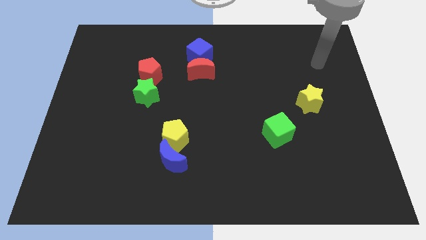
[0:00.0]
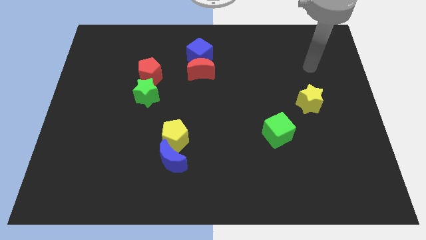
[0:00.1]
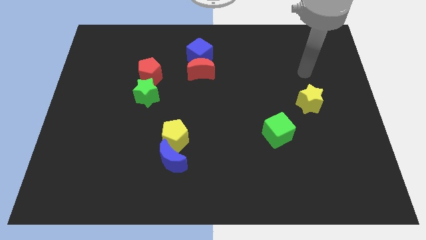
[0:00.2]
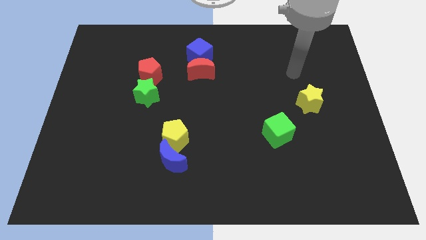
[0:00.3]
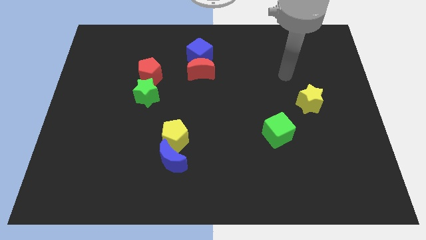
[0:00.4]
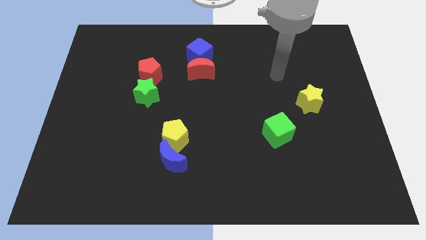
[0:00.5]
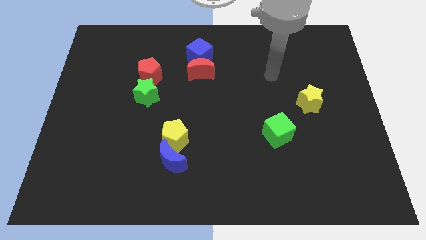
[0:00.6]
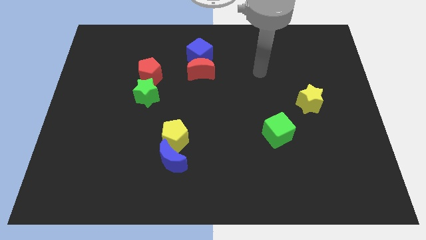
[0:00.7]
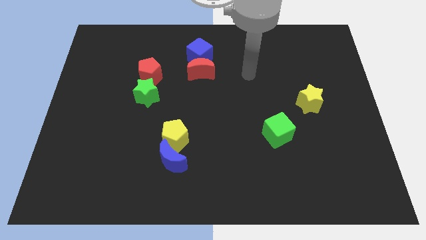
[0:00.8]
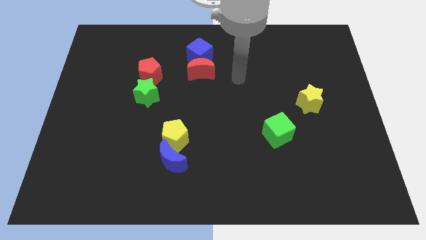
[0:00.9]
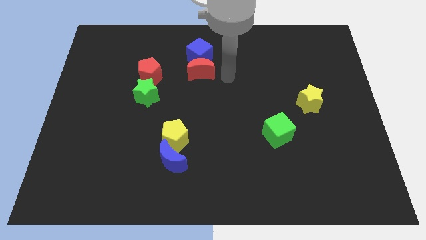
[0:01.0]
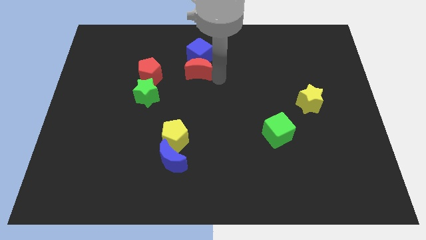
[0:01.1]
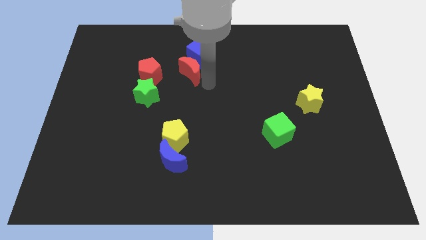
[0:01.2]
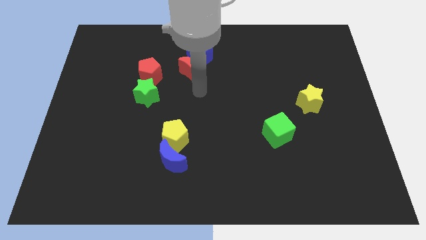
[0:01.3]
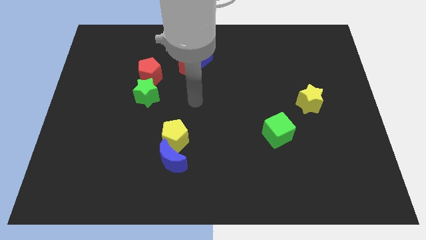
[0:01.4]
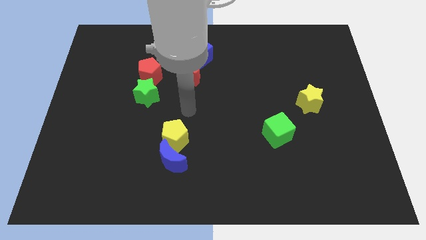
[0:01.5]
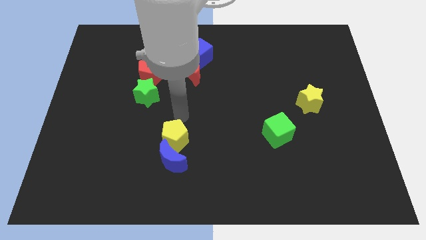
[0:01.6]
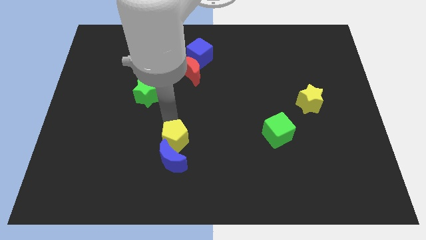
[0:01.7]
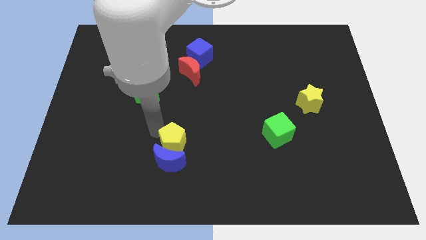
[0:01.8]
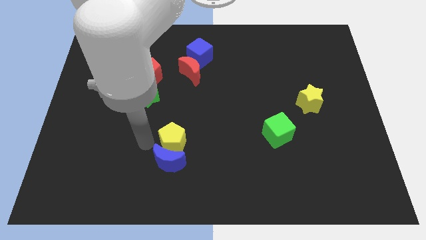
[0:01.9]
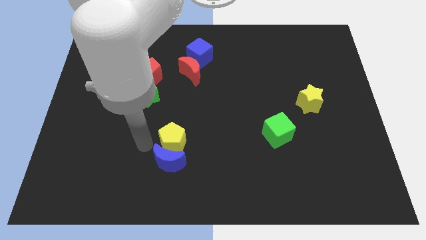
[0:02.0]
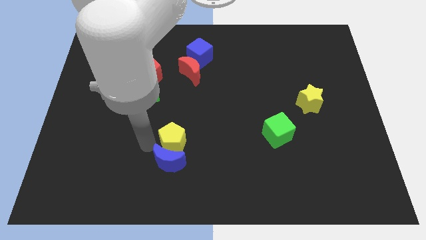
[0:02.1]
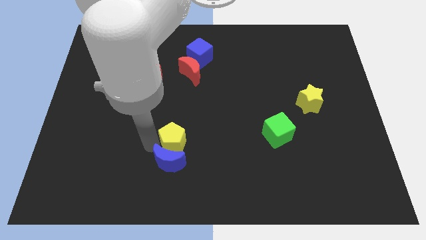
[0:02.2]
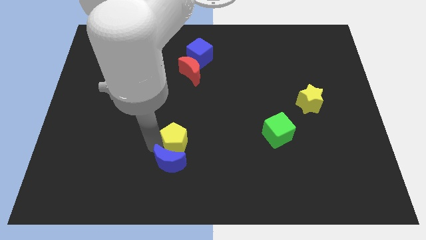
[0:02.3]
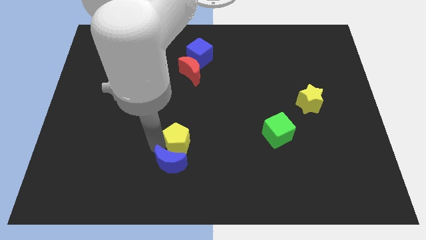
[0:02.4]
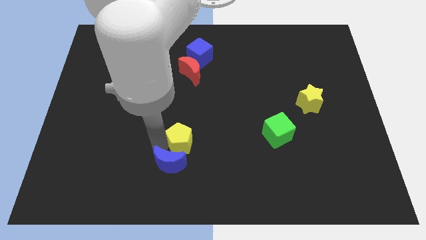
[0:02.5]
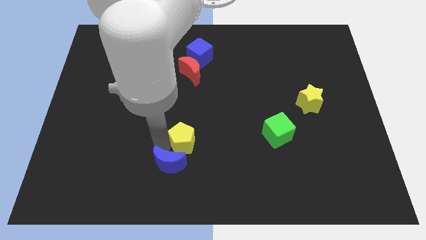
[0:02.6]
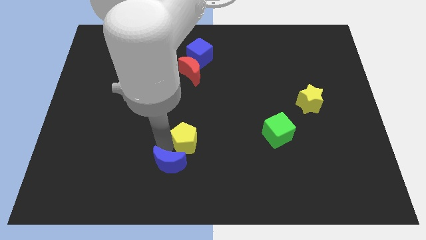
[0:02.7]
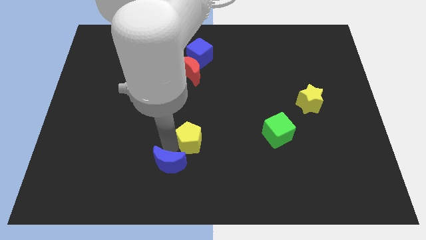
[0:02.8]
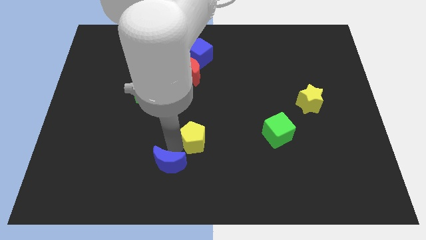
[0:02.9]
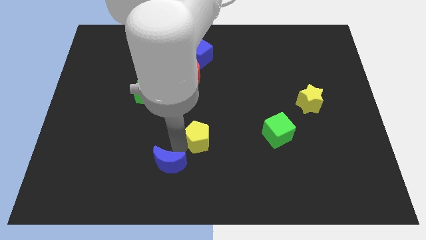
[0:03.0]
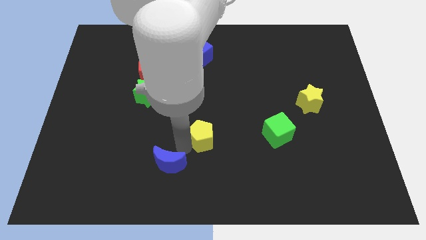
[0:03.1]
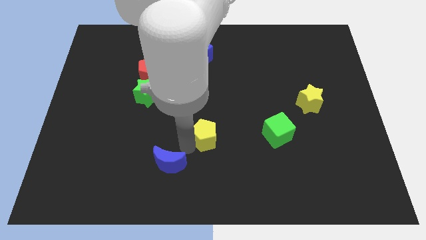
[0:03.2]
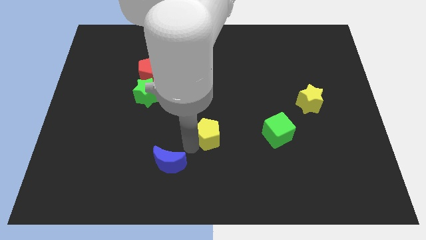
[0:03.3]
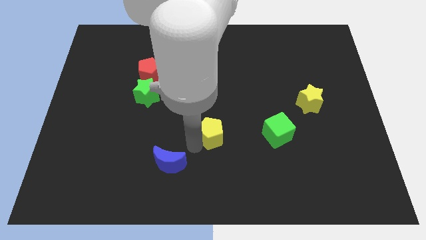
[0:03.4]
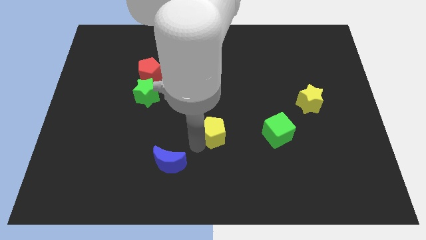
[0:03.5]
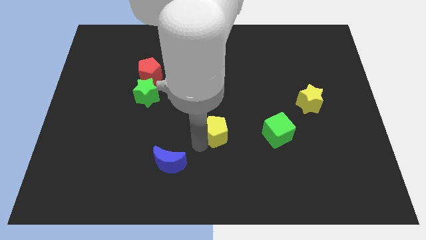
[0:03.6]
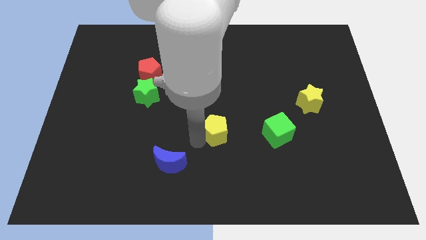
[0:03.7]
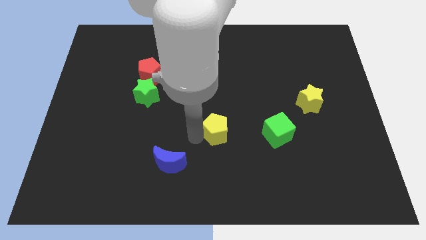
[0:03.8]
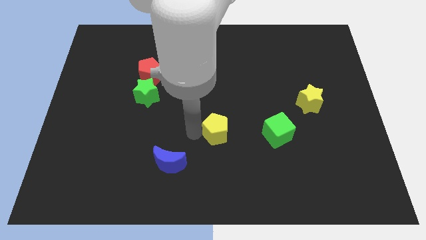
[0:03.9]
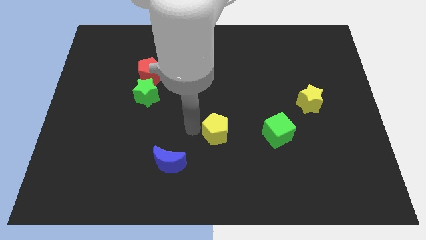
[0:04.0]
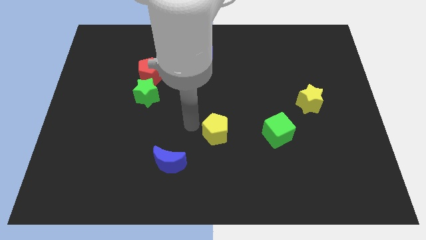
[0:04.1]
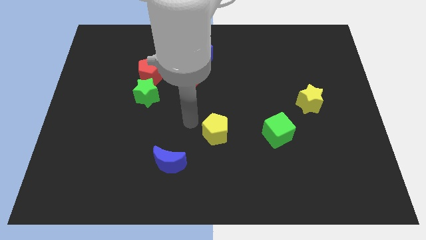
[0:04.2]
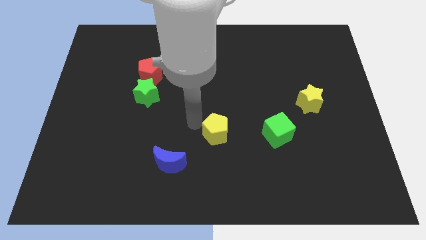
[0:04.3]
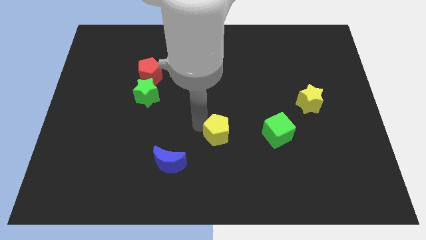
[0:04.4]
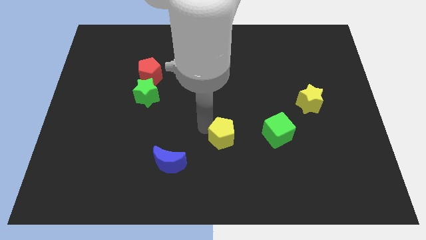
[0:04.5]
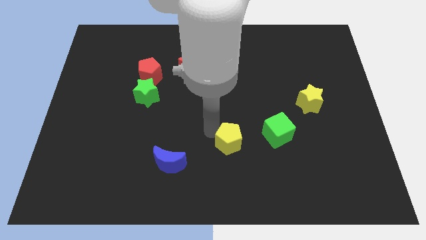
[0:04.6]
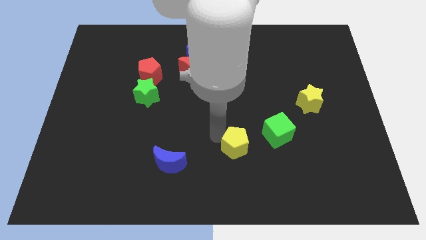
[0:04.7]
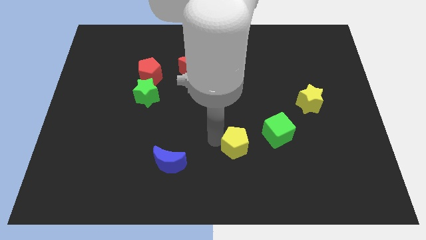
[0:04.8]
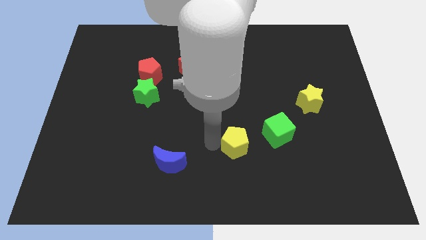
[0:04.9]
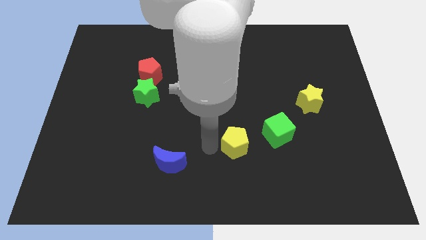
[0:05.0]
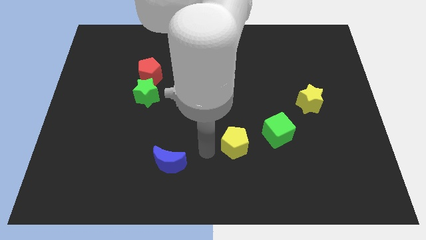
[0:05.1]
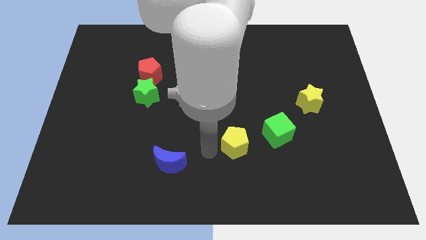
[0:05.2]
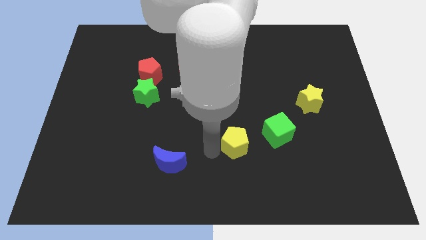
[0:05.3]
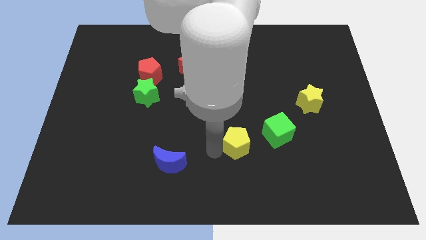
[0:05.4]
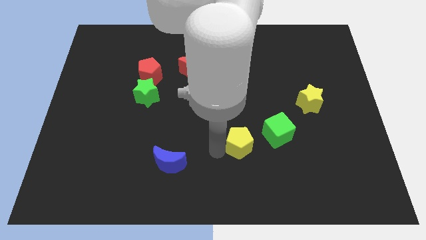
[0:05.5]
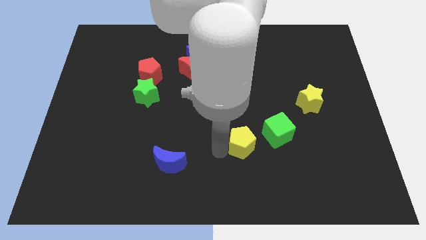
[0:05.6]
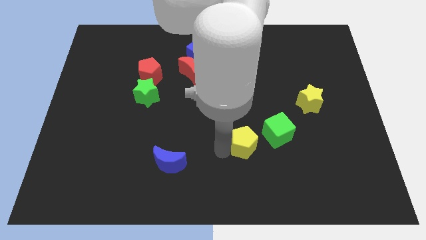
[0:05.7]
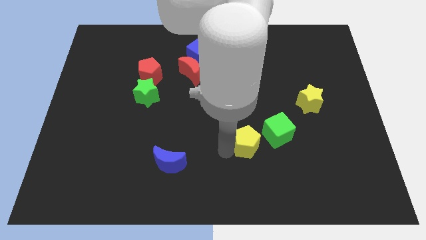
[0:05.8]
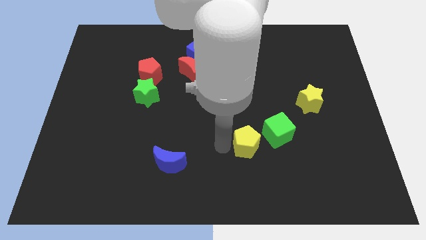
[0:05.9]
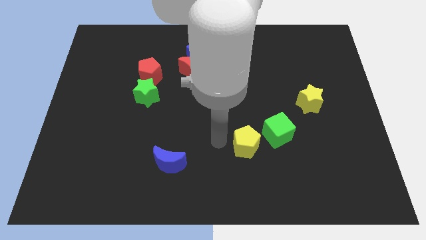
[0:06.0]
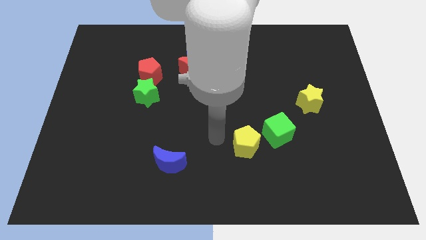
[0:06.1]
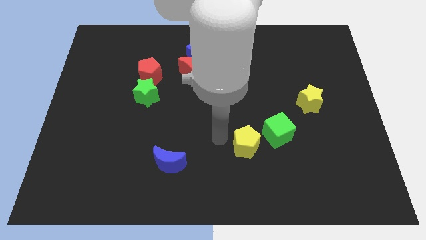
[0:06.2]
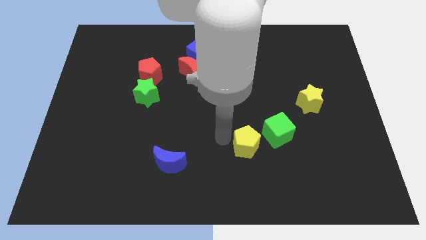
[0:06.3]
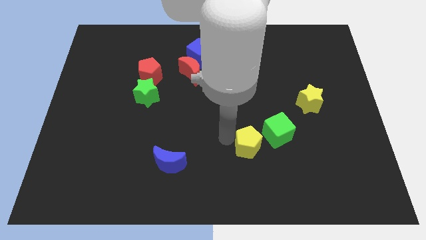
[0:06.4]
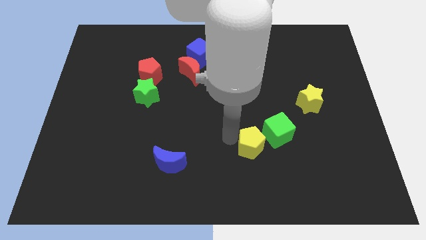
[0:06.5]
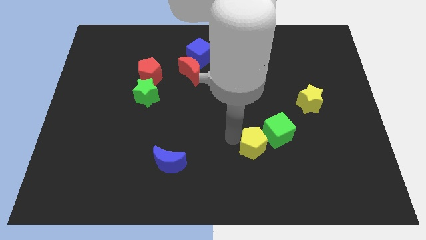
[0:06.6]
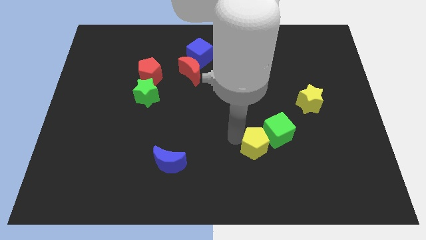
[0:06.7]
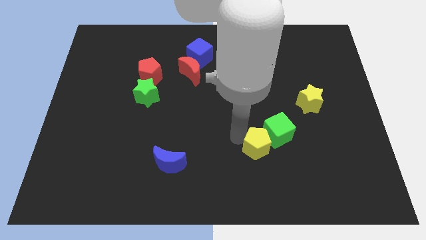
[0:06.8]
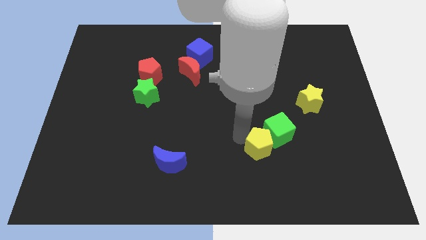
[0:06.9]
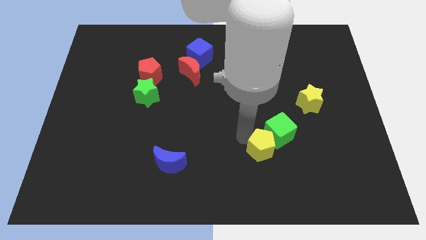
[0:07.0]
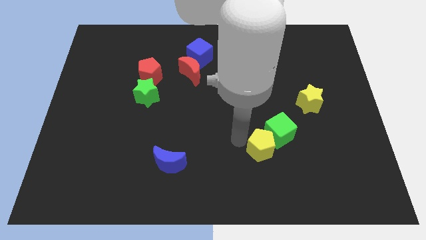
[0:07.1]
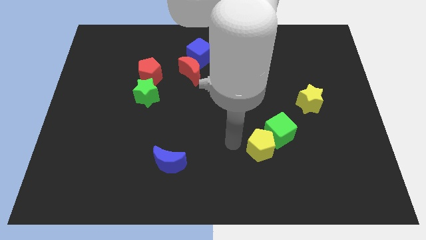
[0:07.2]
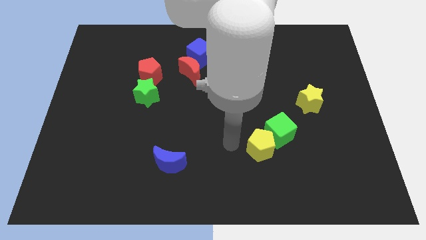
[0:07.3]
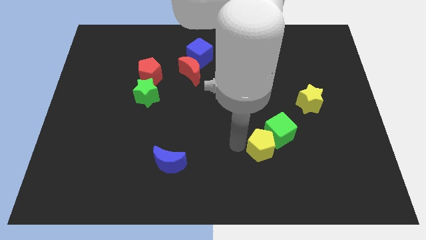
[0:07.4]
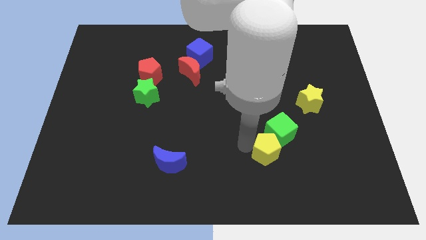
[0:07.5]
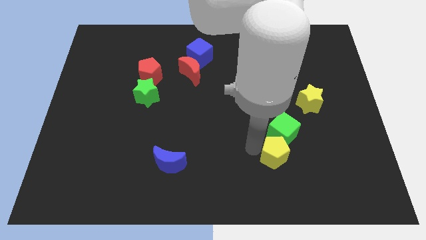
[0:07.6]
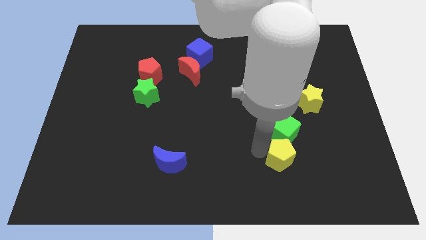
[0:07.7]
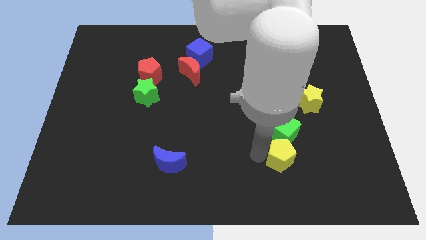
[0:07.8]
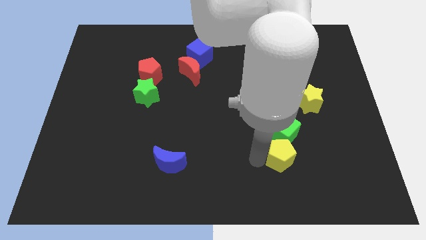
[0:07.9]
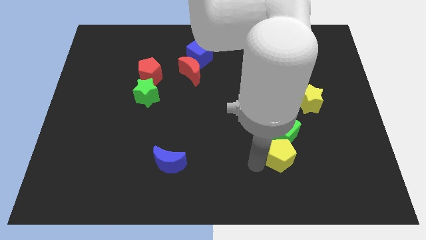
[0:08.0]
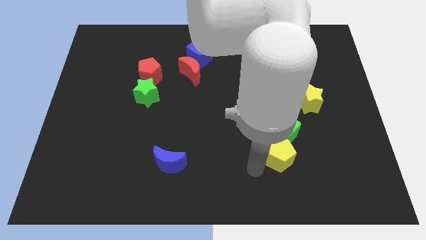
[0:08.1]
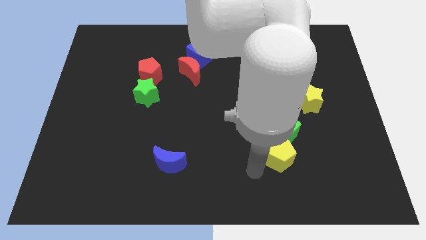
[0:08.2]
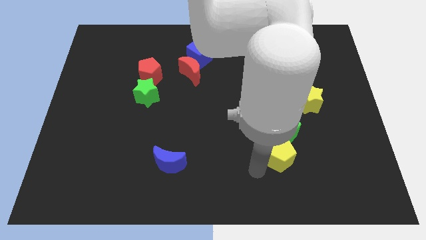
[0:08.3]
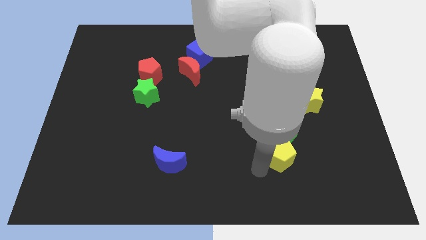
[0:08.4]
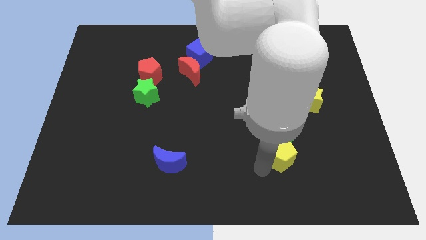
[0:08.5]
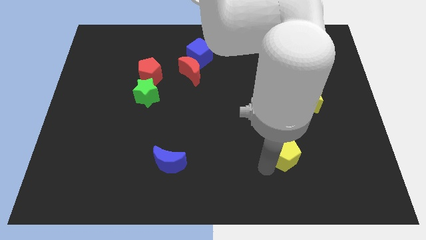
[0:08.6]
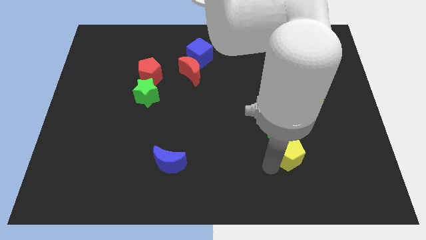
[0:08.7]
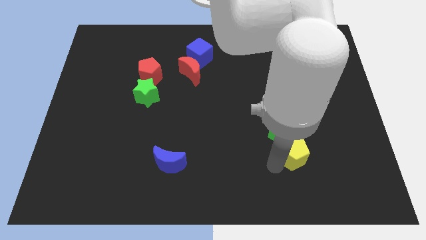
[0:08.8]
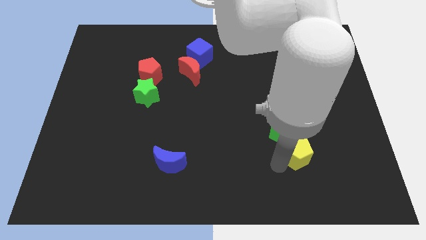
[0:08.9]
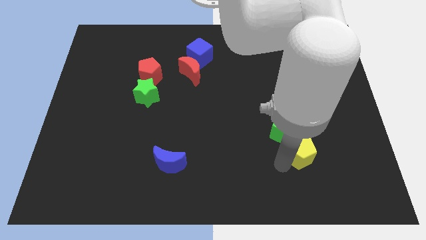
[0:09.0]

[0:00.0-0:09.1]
push the yellow pentagon to the bottom of the yellow star
